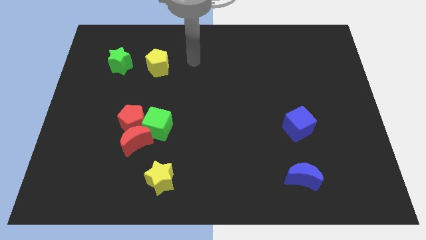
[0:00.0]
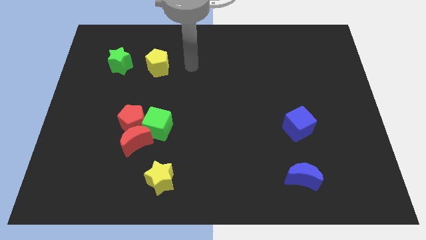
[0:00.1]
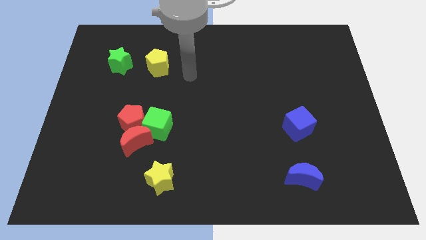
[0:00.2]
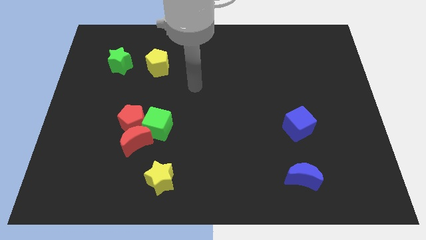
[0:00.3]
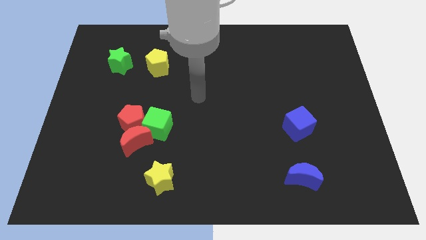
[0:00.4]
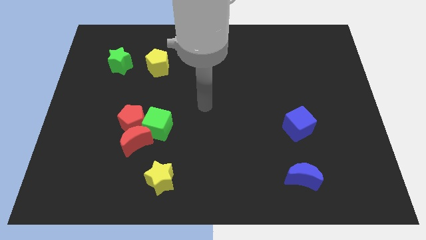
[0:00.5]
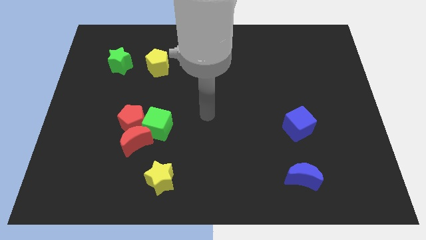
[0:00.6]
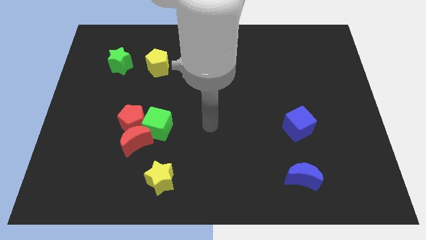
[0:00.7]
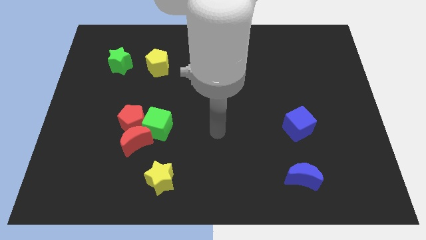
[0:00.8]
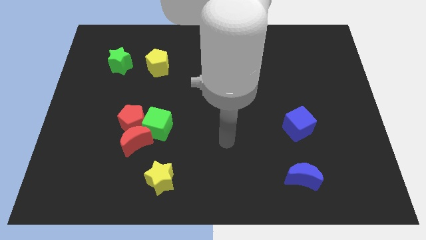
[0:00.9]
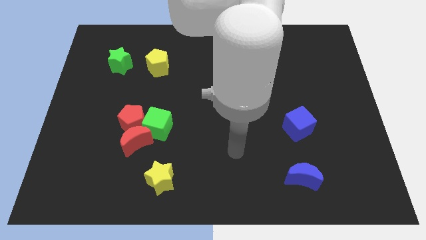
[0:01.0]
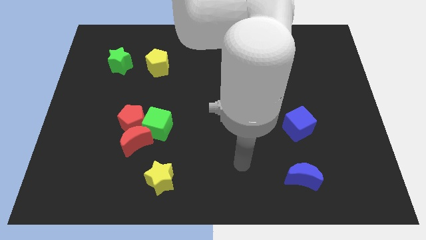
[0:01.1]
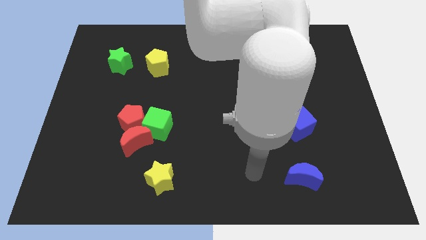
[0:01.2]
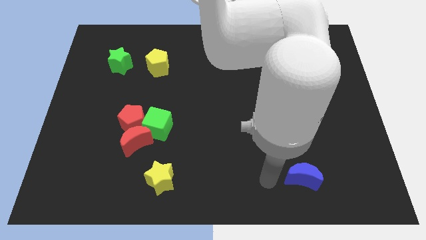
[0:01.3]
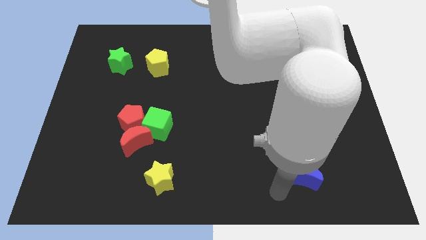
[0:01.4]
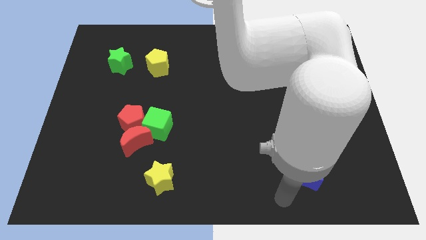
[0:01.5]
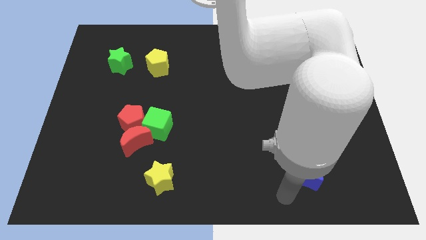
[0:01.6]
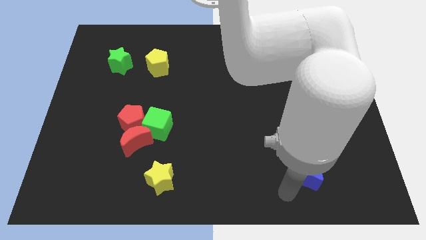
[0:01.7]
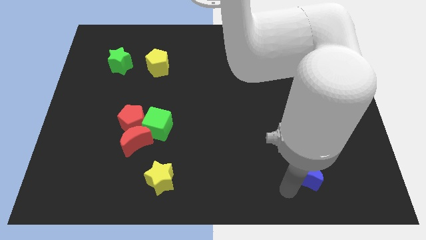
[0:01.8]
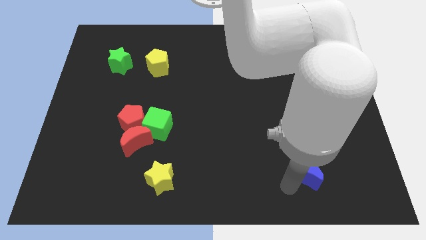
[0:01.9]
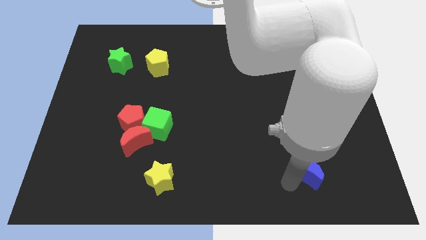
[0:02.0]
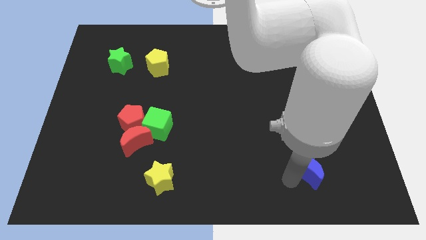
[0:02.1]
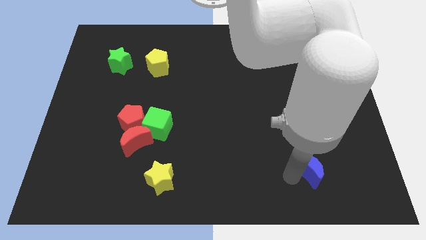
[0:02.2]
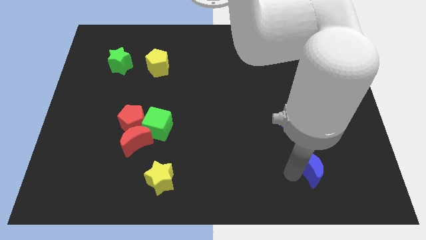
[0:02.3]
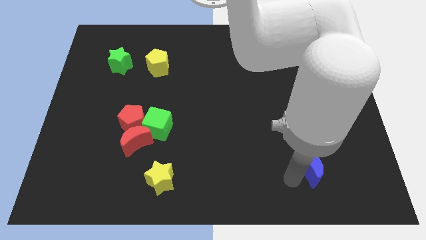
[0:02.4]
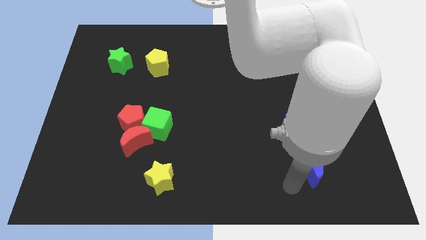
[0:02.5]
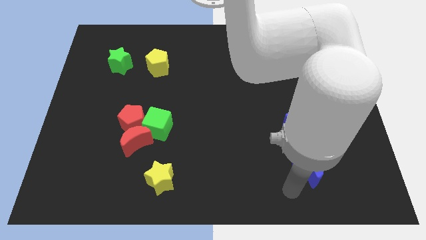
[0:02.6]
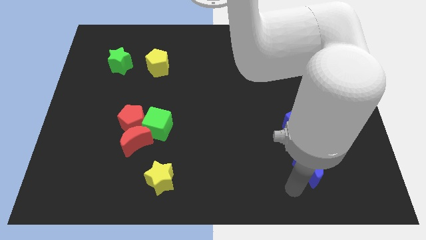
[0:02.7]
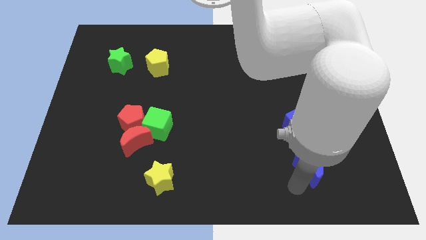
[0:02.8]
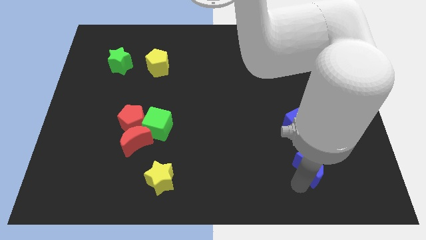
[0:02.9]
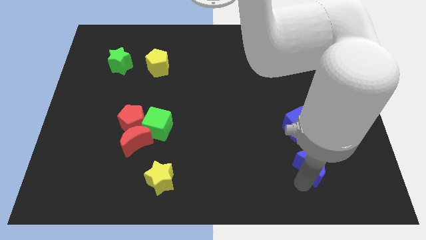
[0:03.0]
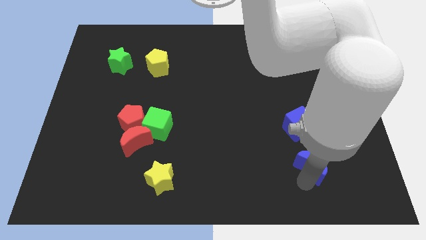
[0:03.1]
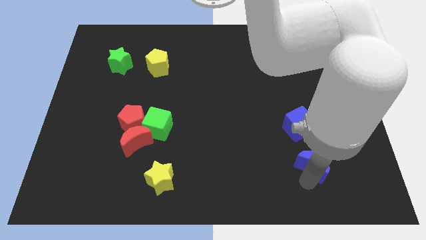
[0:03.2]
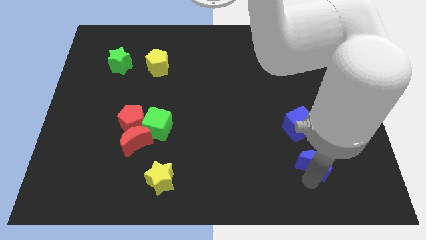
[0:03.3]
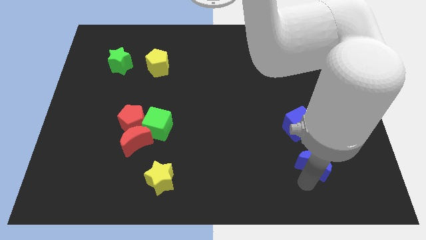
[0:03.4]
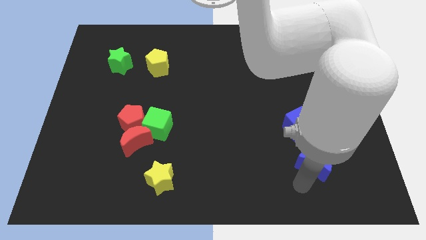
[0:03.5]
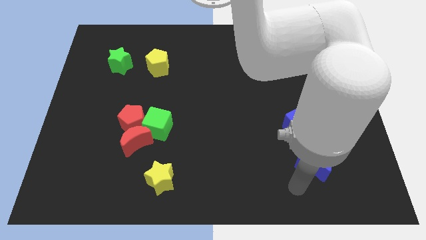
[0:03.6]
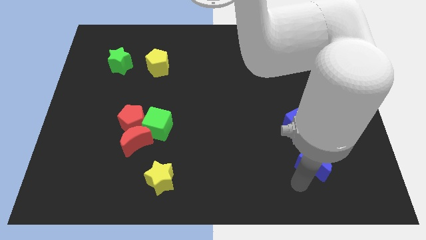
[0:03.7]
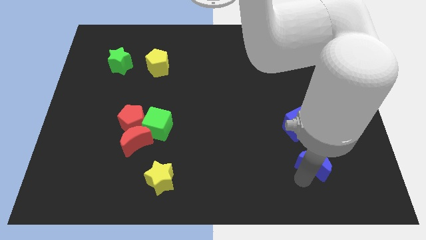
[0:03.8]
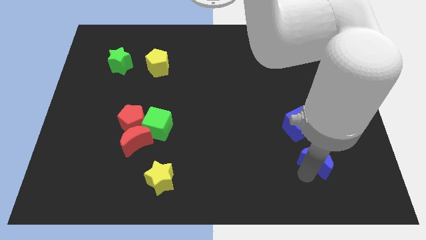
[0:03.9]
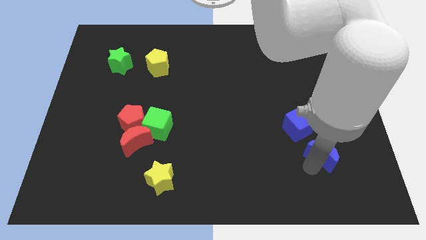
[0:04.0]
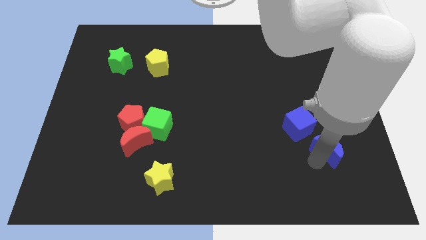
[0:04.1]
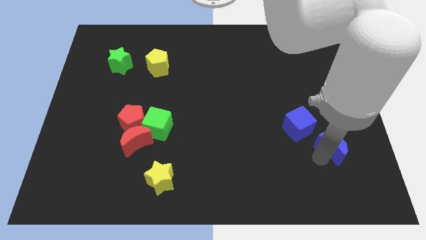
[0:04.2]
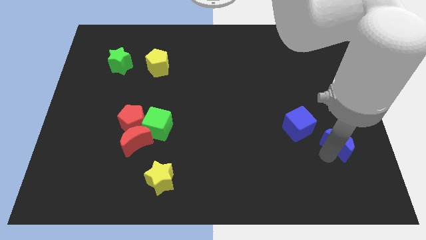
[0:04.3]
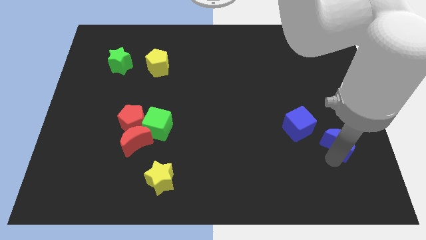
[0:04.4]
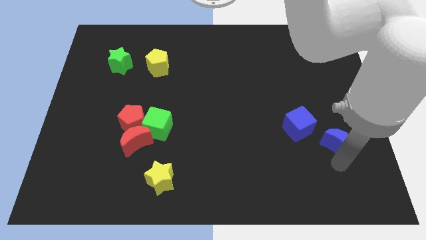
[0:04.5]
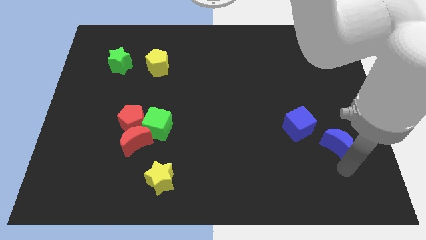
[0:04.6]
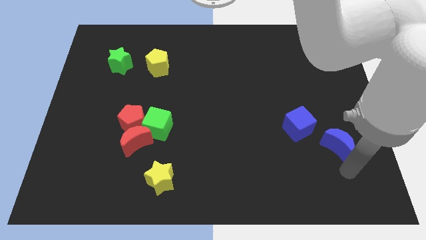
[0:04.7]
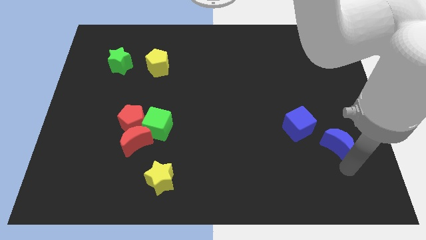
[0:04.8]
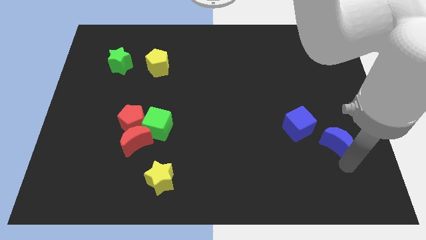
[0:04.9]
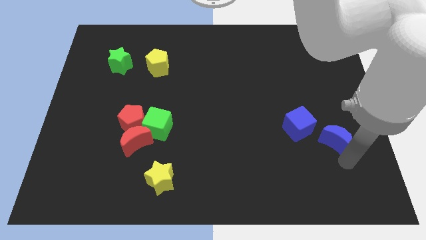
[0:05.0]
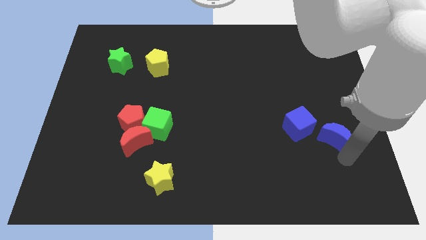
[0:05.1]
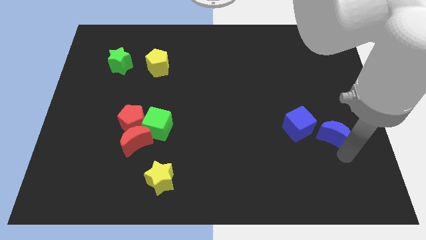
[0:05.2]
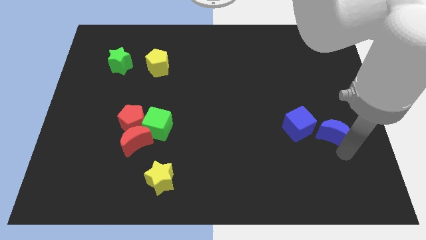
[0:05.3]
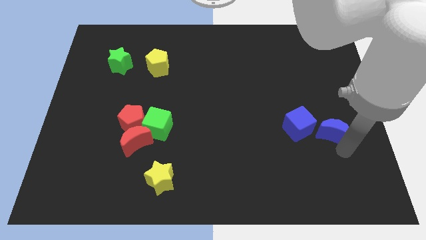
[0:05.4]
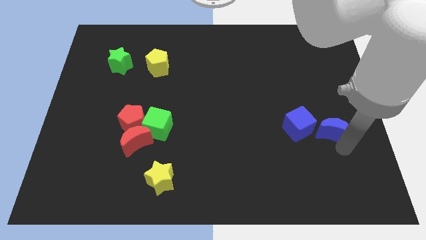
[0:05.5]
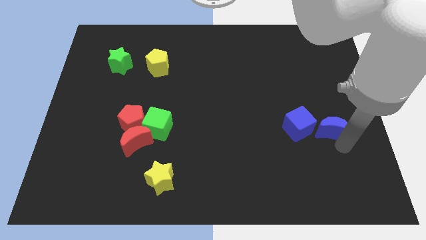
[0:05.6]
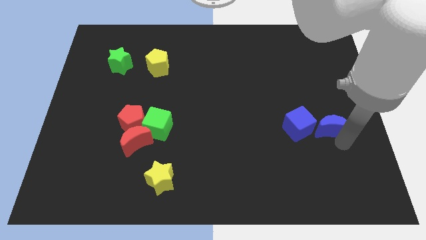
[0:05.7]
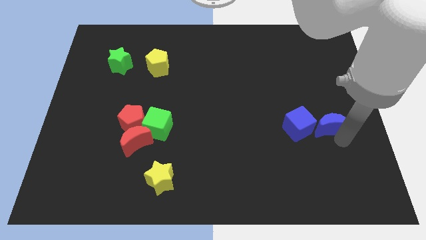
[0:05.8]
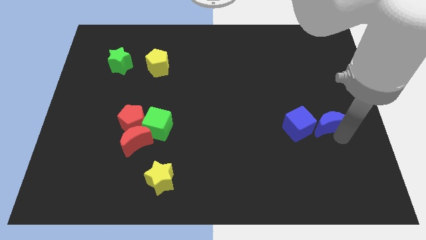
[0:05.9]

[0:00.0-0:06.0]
slide the blue moon to the top right of the blue cube

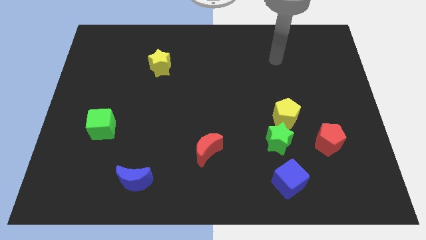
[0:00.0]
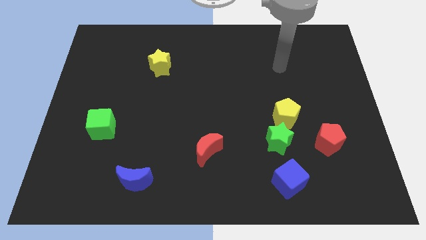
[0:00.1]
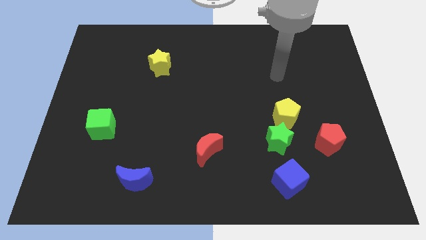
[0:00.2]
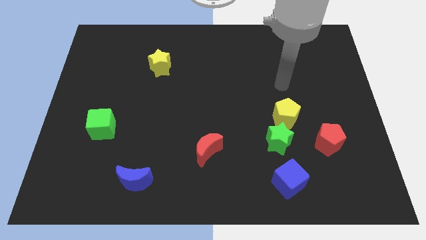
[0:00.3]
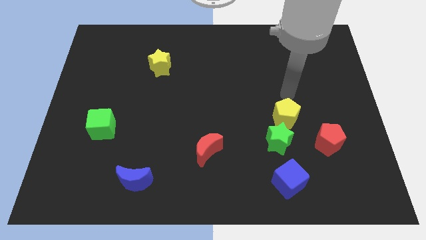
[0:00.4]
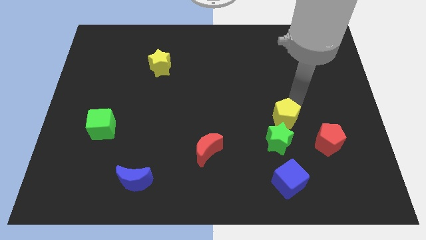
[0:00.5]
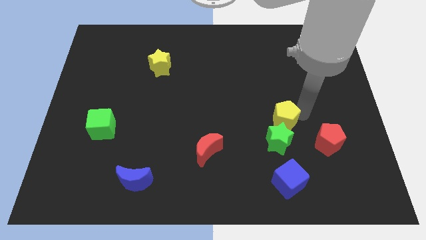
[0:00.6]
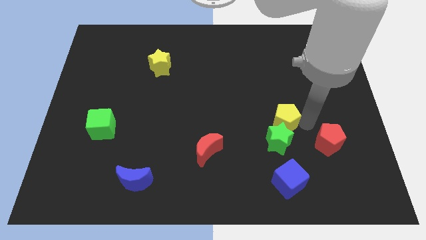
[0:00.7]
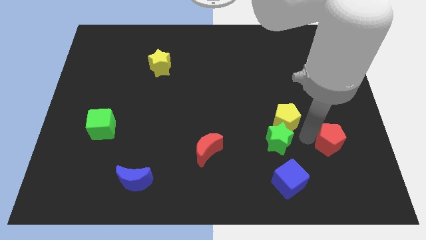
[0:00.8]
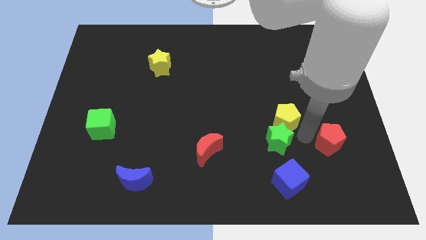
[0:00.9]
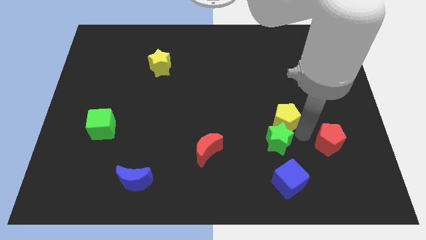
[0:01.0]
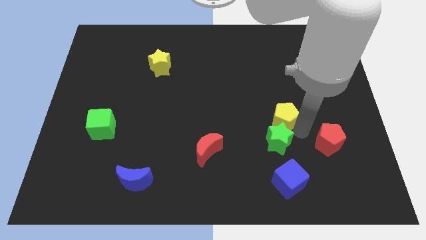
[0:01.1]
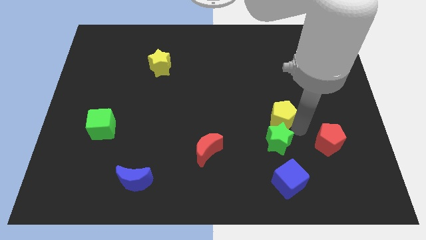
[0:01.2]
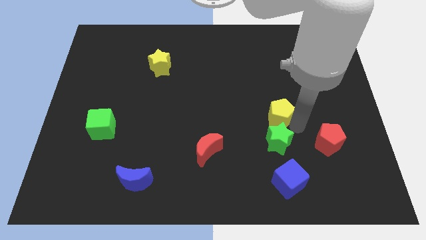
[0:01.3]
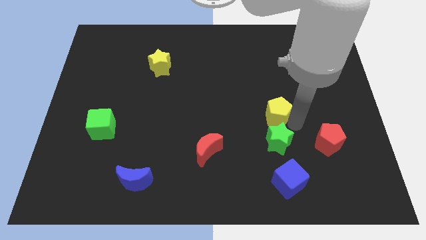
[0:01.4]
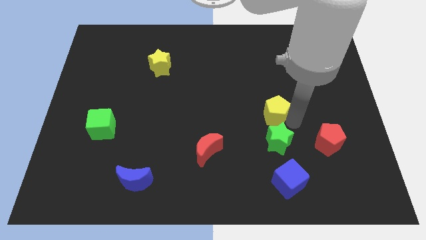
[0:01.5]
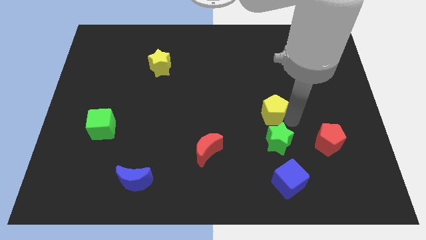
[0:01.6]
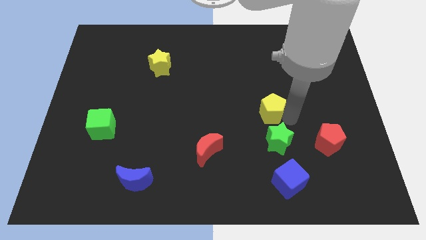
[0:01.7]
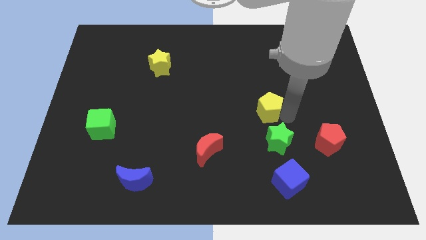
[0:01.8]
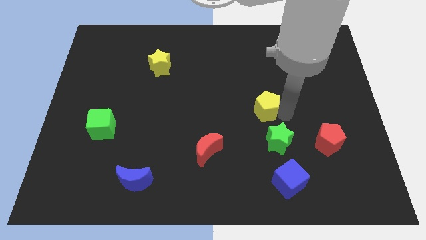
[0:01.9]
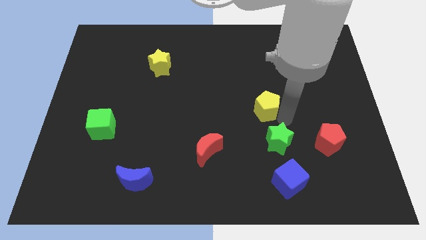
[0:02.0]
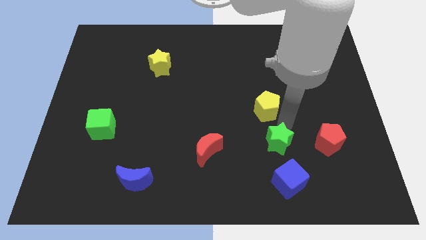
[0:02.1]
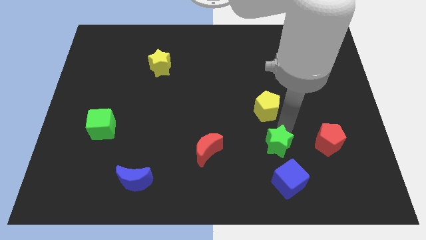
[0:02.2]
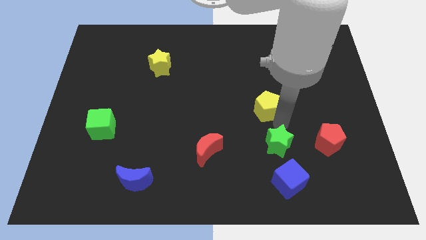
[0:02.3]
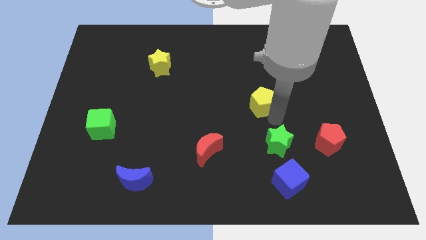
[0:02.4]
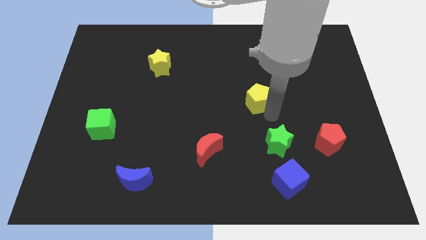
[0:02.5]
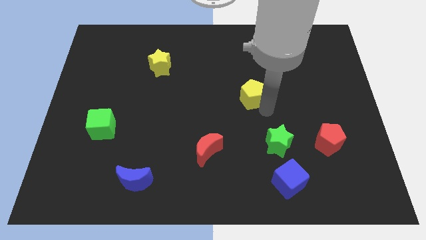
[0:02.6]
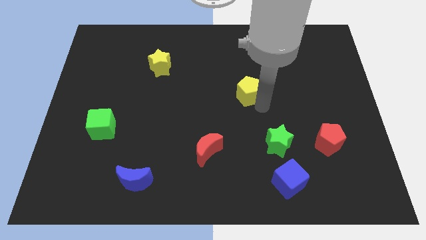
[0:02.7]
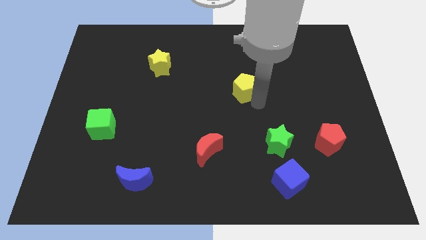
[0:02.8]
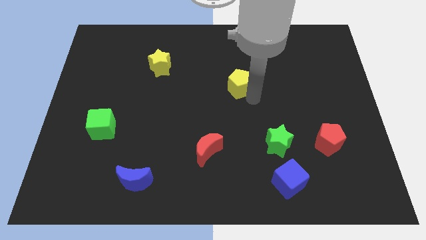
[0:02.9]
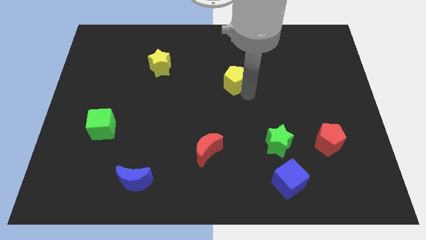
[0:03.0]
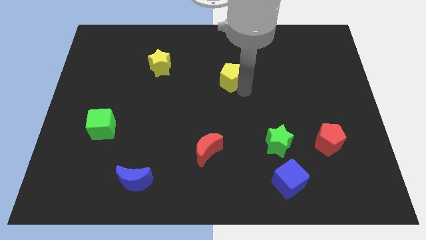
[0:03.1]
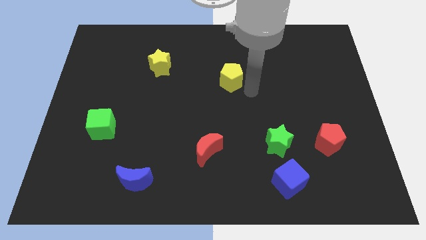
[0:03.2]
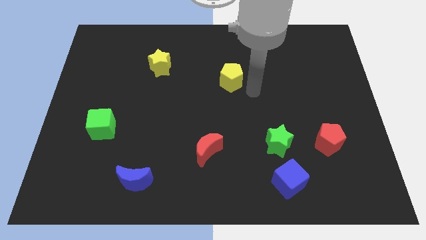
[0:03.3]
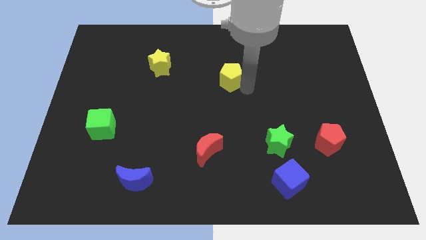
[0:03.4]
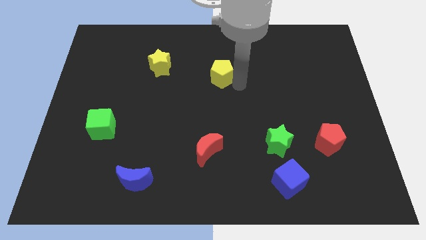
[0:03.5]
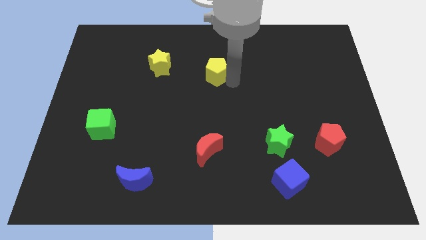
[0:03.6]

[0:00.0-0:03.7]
push the yellow pentagon to the right of the yellow star
